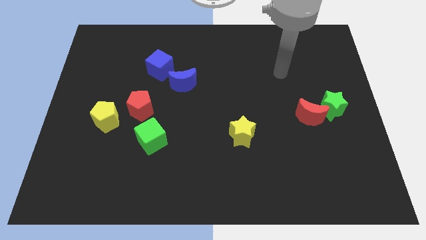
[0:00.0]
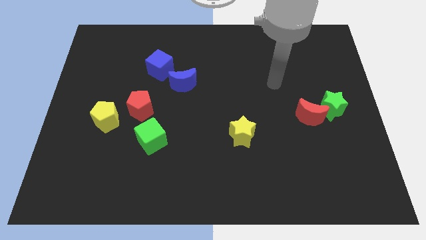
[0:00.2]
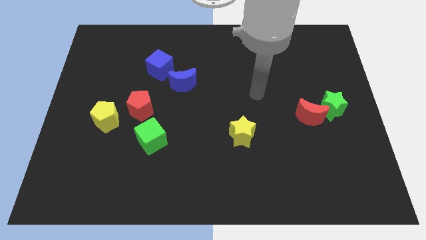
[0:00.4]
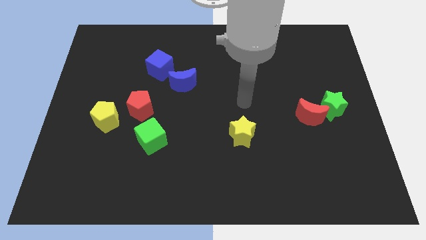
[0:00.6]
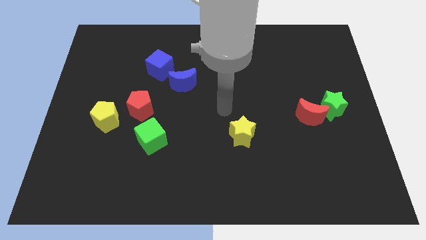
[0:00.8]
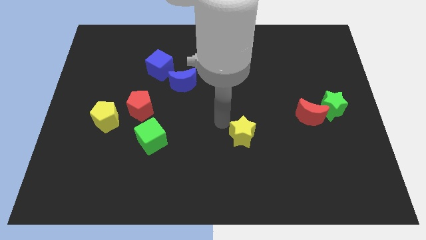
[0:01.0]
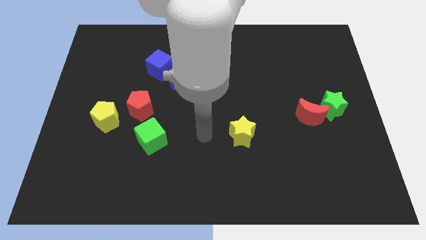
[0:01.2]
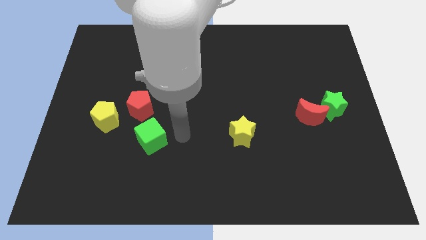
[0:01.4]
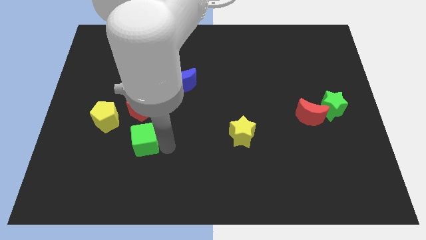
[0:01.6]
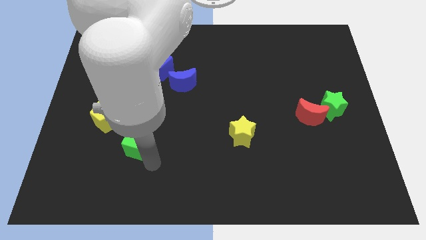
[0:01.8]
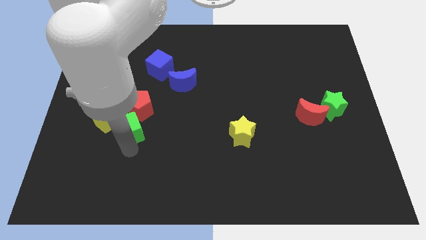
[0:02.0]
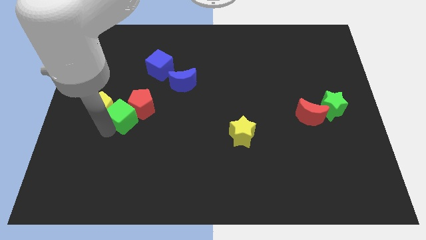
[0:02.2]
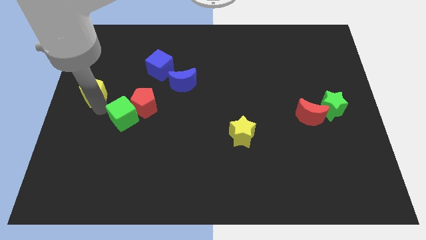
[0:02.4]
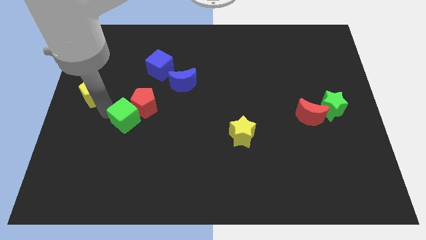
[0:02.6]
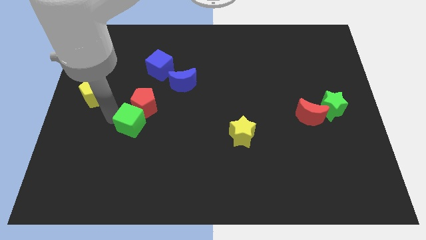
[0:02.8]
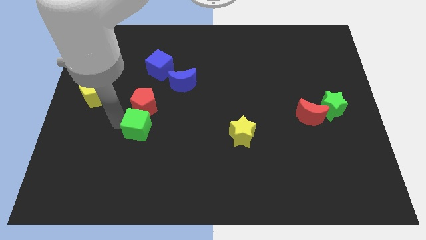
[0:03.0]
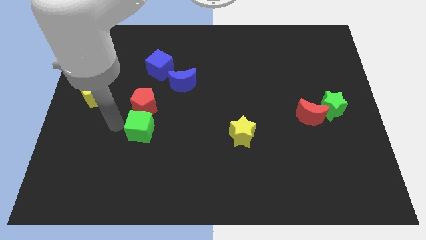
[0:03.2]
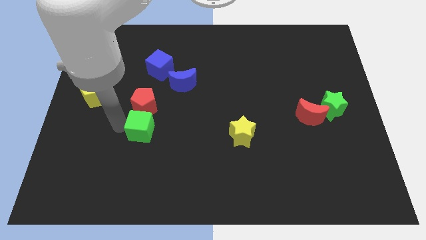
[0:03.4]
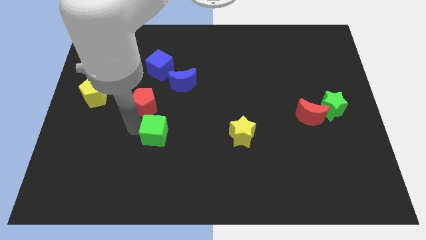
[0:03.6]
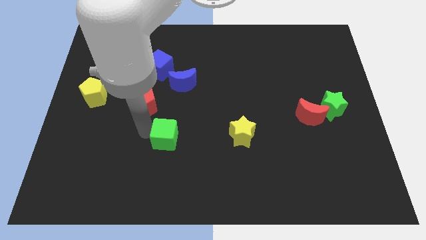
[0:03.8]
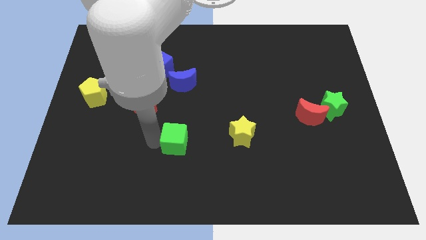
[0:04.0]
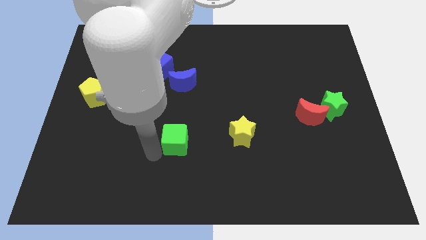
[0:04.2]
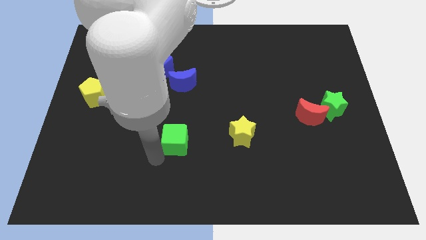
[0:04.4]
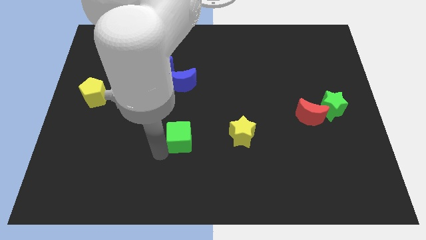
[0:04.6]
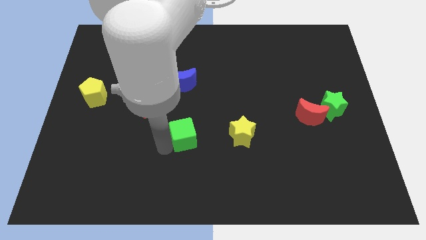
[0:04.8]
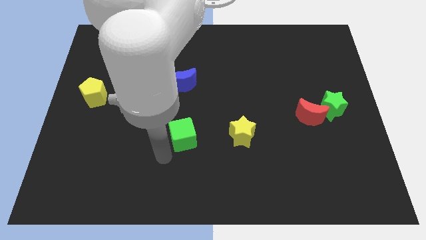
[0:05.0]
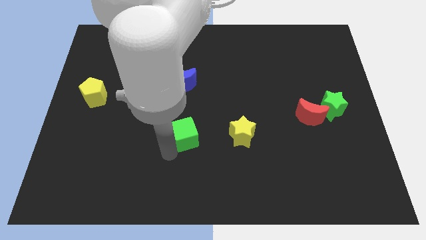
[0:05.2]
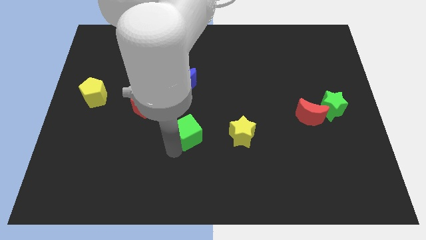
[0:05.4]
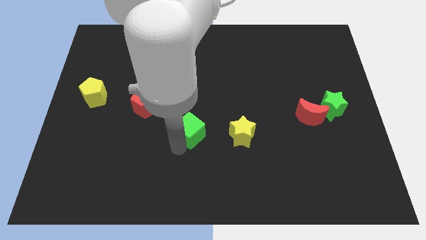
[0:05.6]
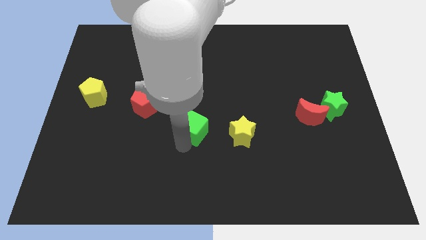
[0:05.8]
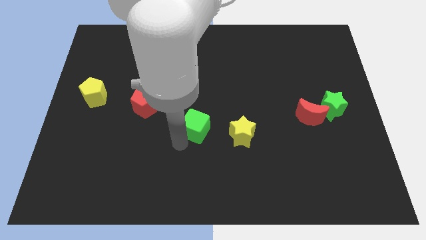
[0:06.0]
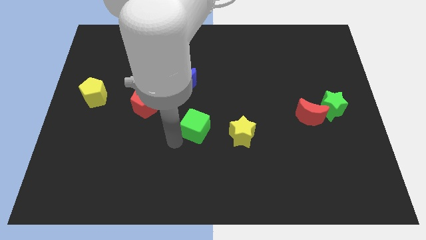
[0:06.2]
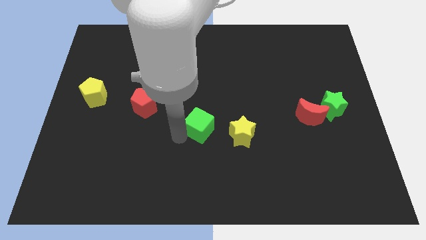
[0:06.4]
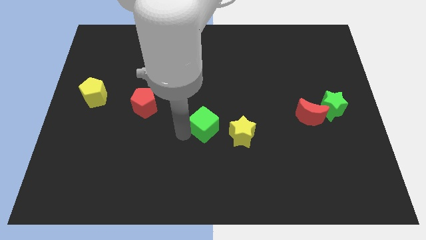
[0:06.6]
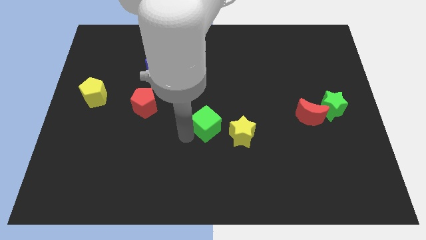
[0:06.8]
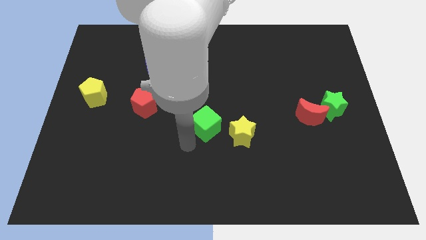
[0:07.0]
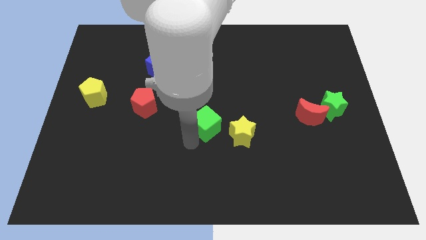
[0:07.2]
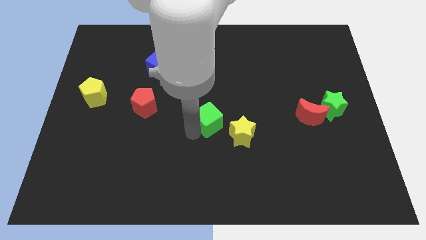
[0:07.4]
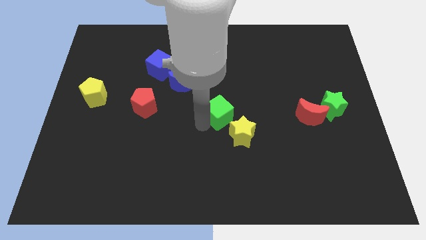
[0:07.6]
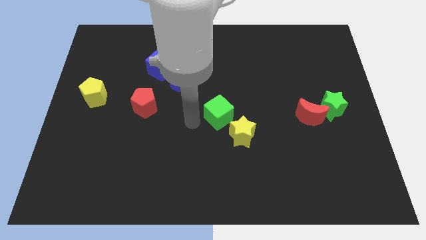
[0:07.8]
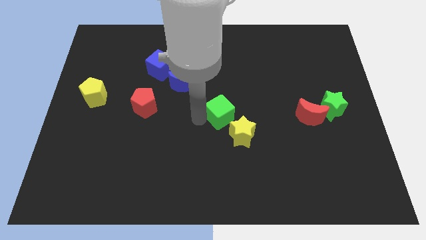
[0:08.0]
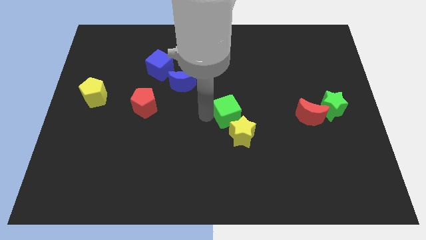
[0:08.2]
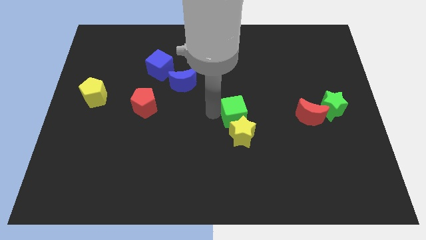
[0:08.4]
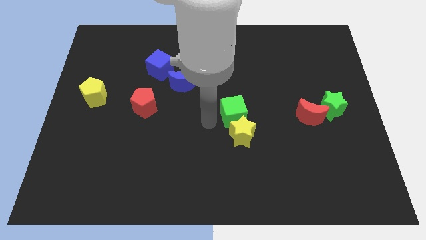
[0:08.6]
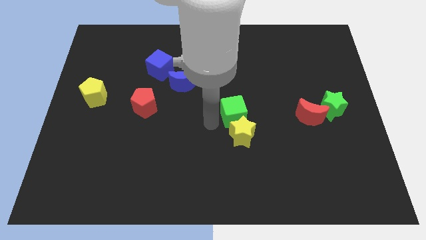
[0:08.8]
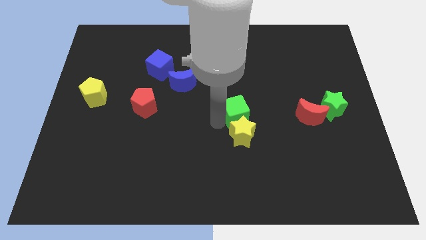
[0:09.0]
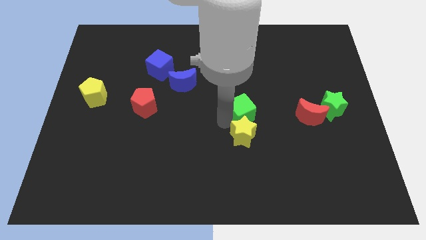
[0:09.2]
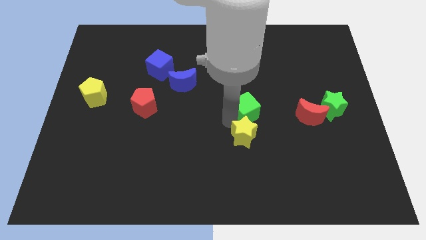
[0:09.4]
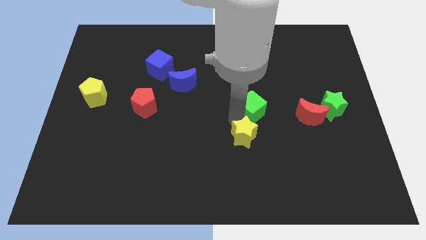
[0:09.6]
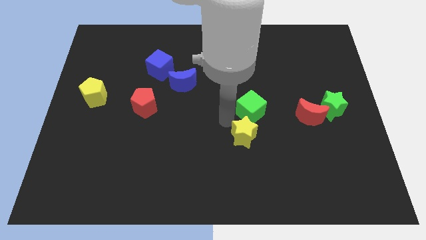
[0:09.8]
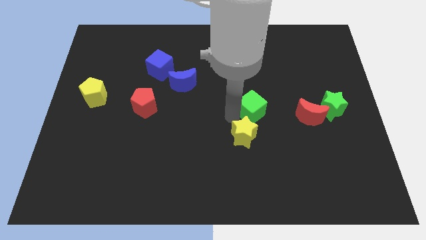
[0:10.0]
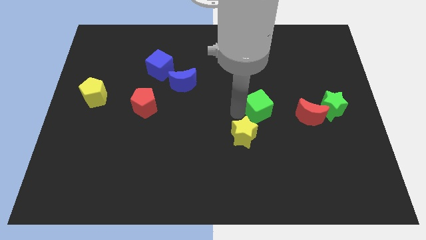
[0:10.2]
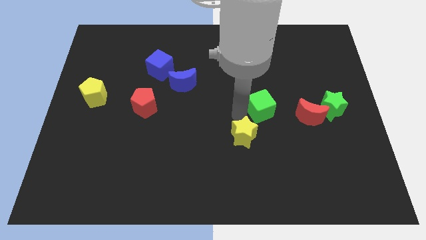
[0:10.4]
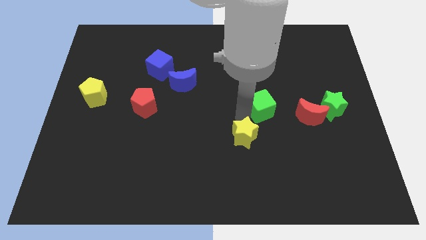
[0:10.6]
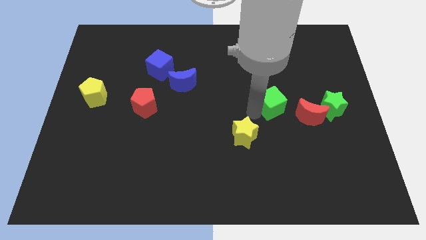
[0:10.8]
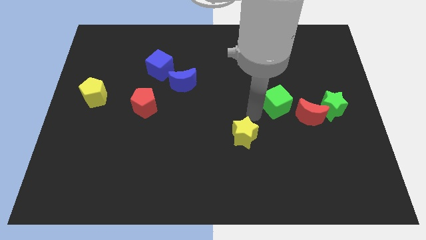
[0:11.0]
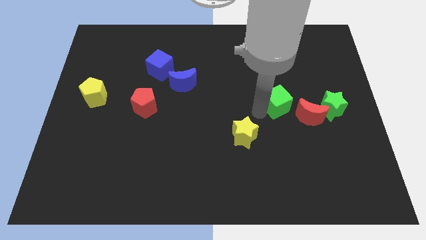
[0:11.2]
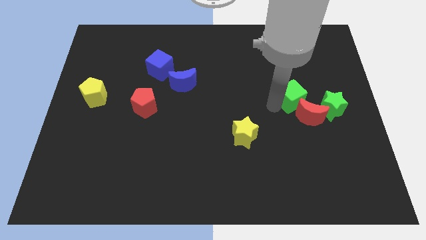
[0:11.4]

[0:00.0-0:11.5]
push the green cube to the top left side of the green star

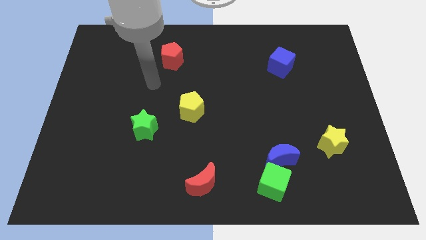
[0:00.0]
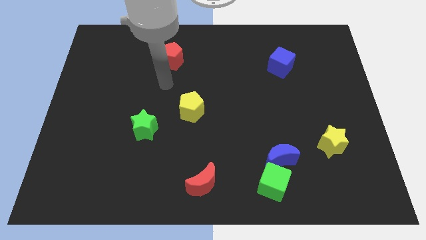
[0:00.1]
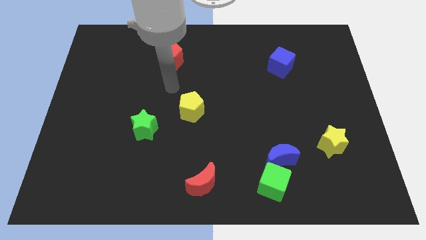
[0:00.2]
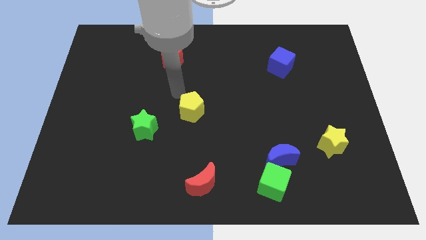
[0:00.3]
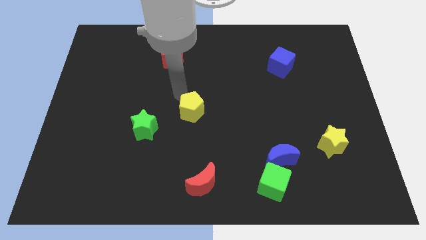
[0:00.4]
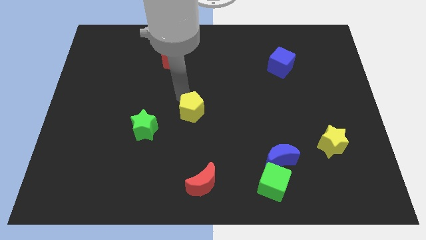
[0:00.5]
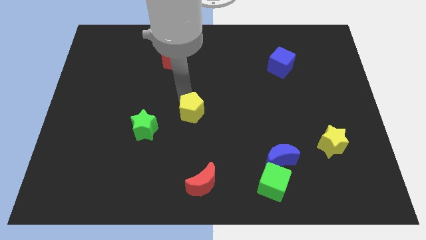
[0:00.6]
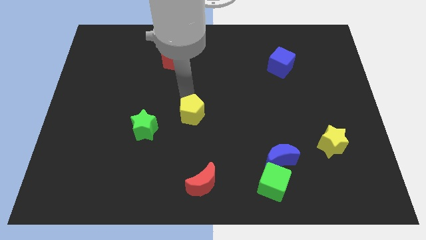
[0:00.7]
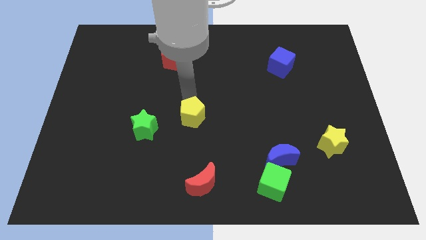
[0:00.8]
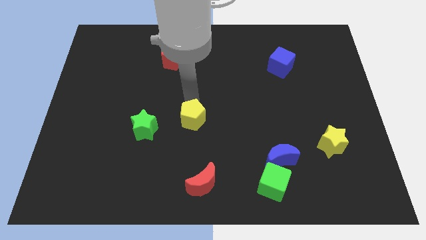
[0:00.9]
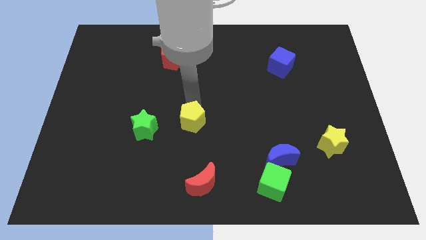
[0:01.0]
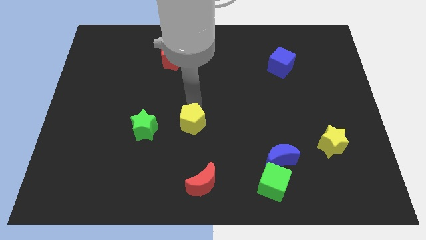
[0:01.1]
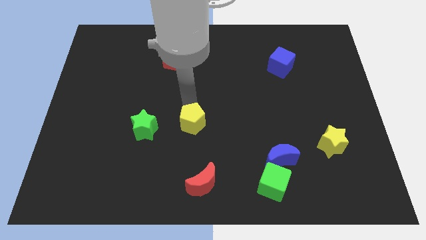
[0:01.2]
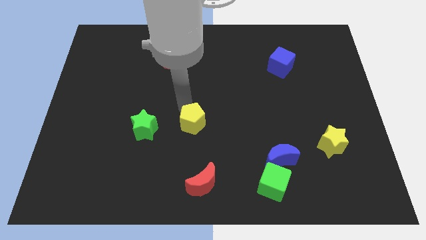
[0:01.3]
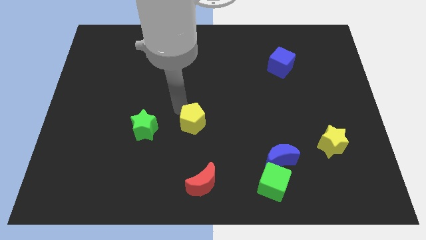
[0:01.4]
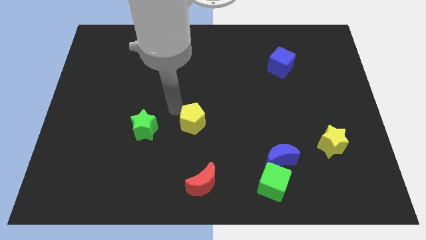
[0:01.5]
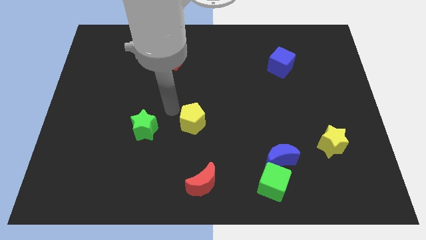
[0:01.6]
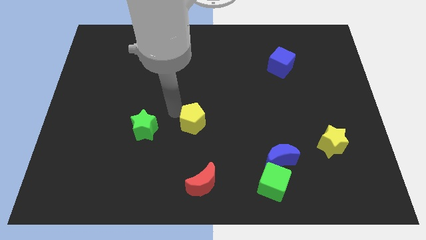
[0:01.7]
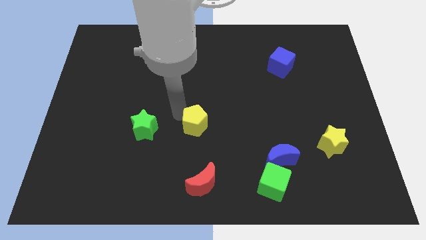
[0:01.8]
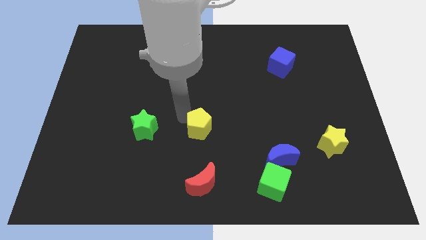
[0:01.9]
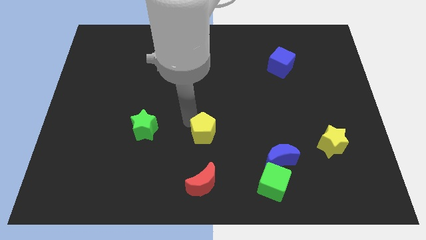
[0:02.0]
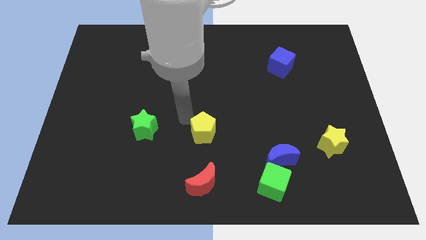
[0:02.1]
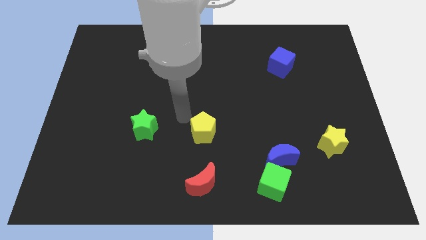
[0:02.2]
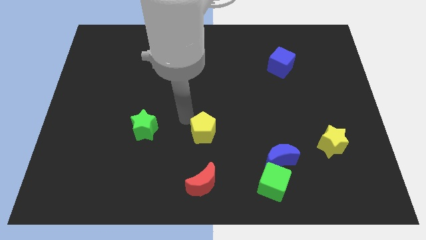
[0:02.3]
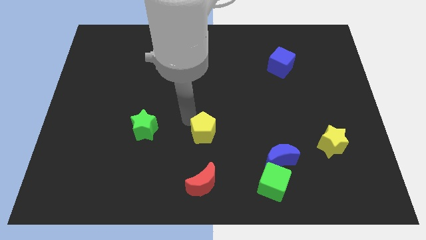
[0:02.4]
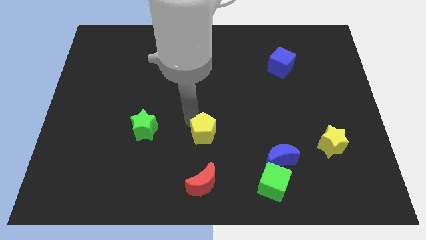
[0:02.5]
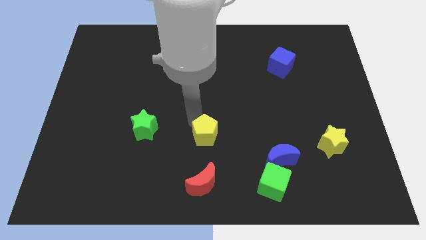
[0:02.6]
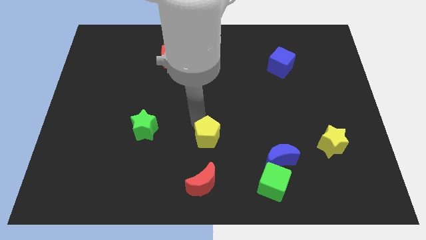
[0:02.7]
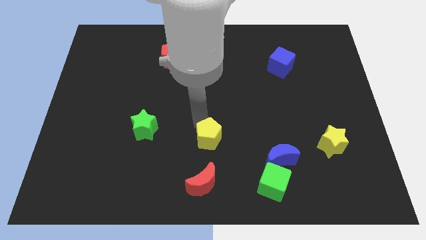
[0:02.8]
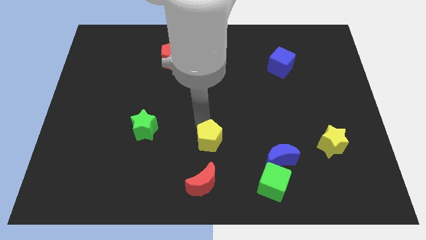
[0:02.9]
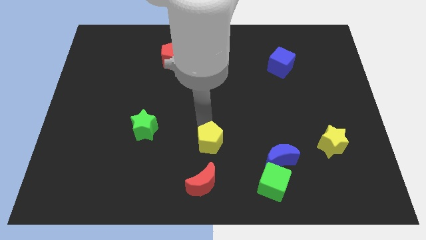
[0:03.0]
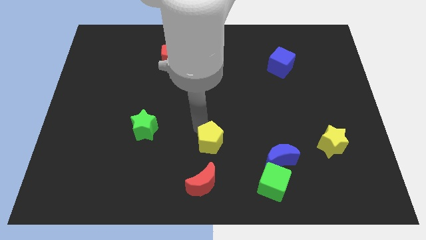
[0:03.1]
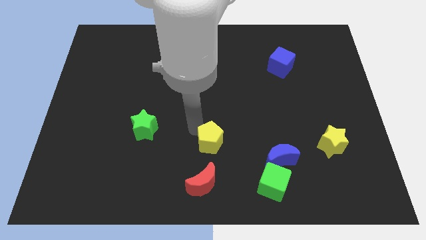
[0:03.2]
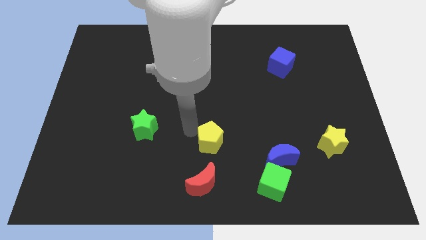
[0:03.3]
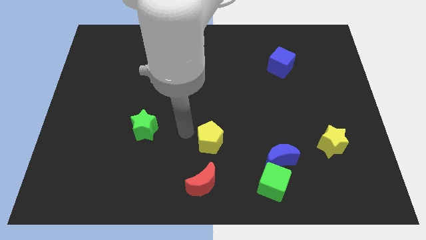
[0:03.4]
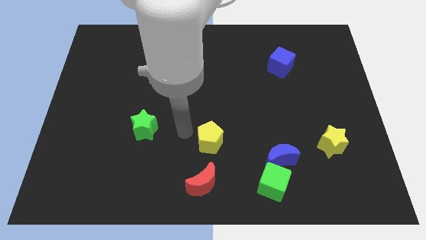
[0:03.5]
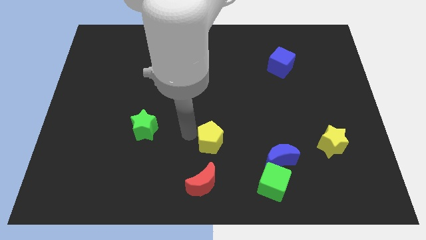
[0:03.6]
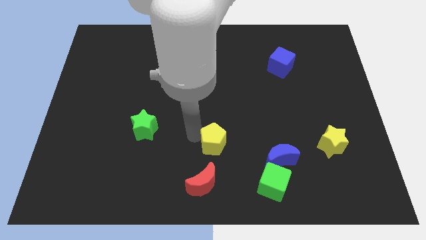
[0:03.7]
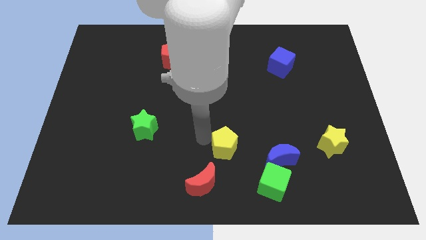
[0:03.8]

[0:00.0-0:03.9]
push the yellow pentagon to the top left of the green cube
